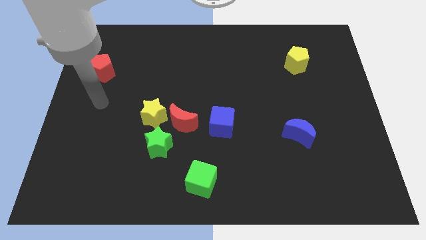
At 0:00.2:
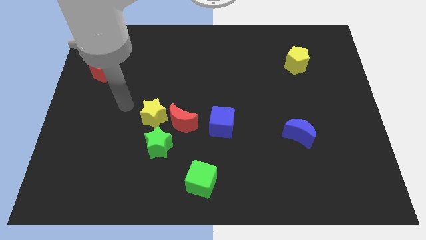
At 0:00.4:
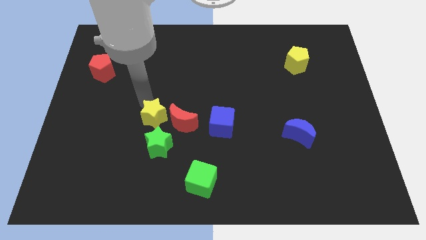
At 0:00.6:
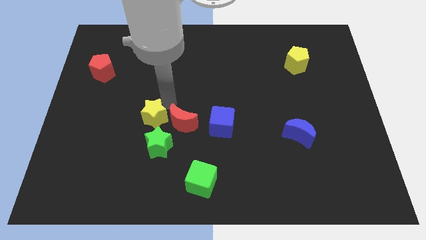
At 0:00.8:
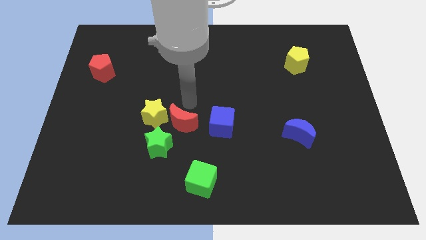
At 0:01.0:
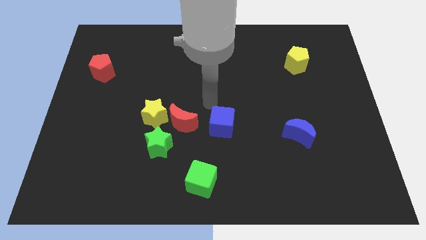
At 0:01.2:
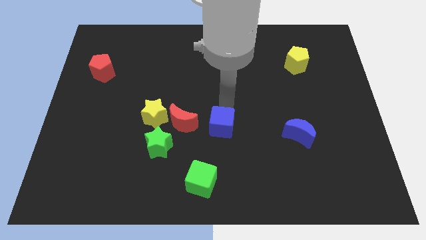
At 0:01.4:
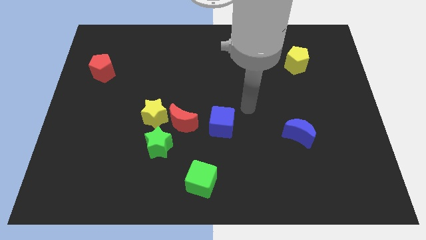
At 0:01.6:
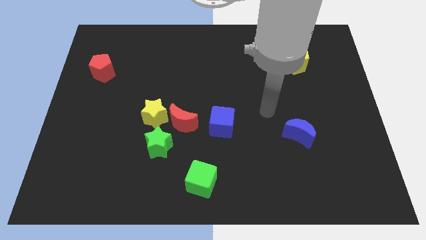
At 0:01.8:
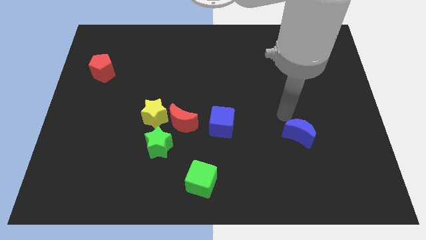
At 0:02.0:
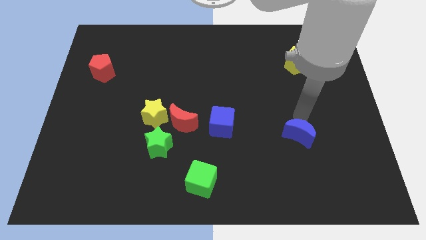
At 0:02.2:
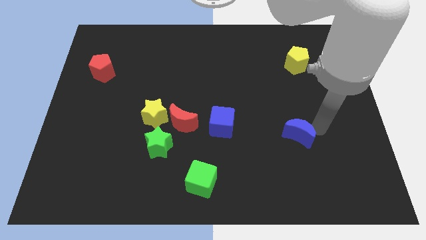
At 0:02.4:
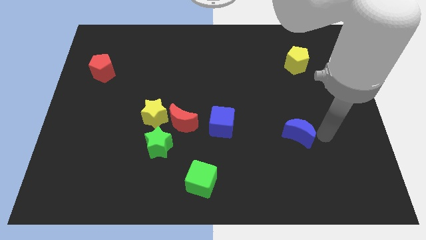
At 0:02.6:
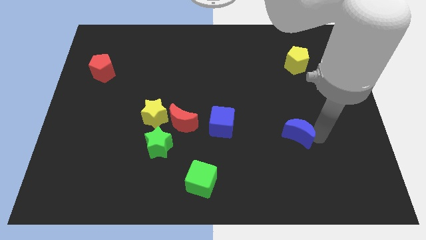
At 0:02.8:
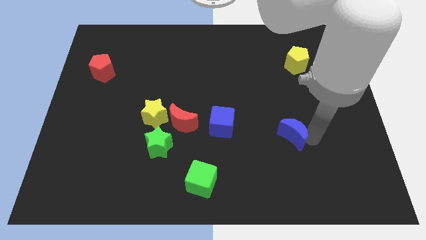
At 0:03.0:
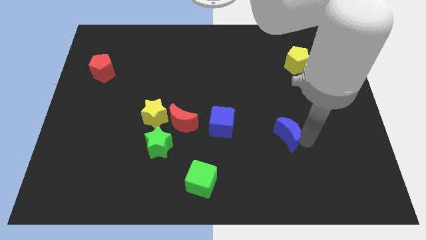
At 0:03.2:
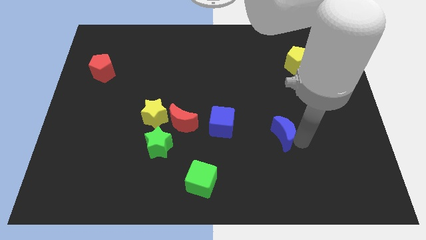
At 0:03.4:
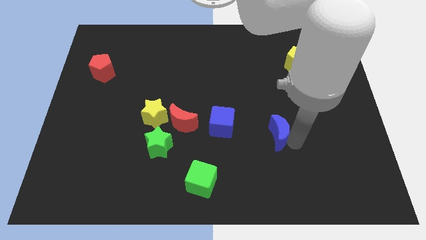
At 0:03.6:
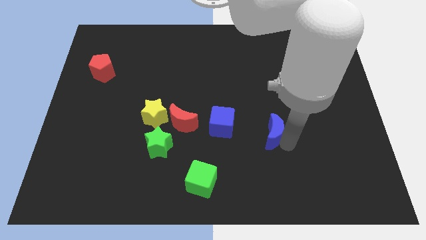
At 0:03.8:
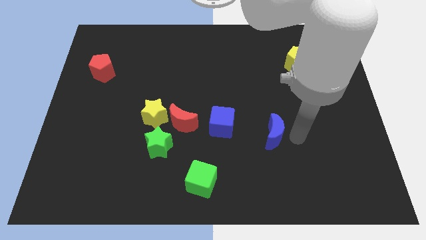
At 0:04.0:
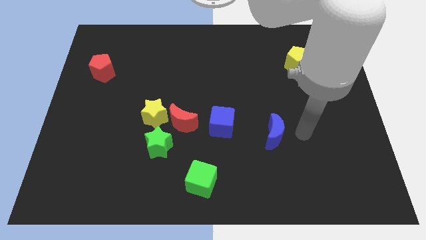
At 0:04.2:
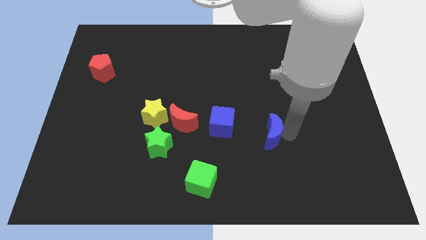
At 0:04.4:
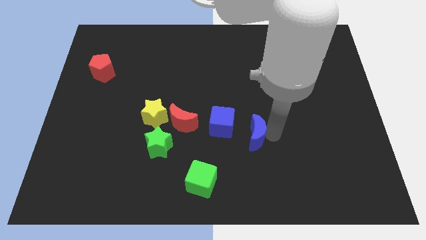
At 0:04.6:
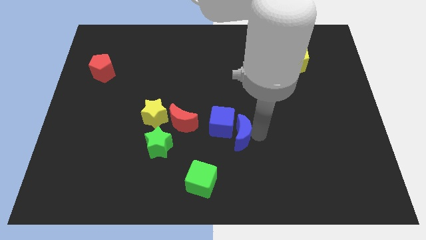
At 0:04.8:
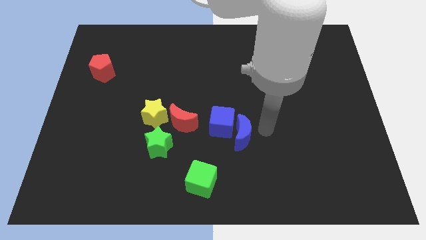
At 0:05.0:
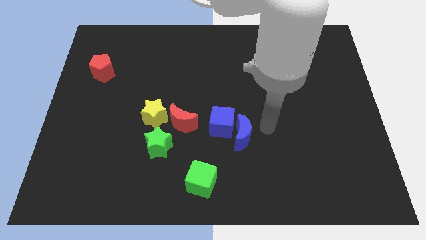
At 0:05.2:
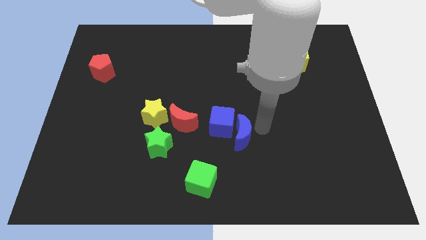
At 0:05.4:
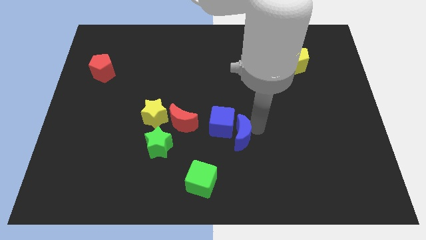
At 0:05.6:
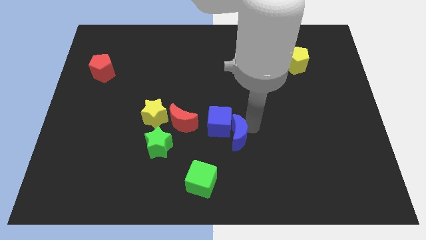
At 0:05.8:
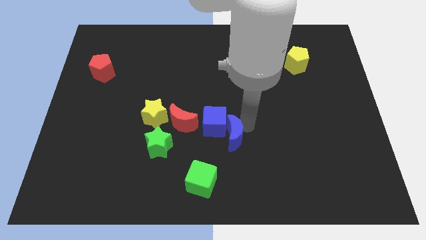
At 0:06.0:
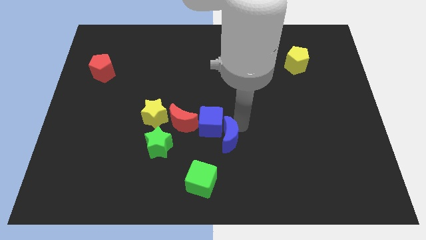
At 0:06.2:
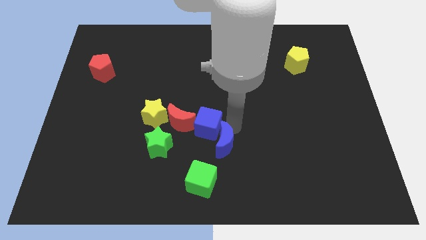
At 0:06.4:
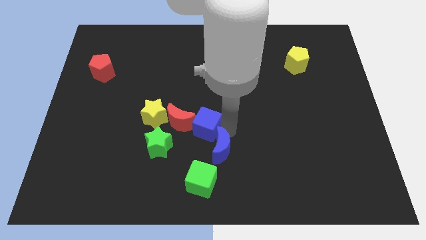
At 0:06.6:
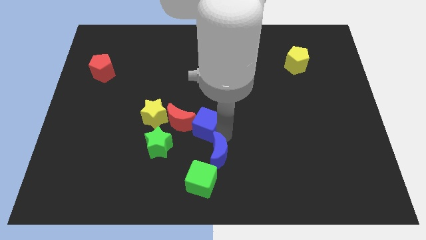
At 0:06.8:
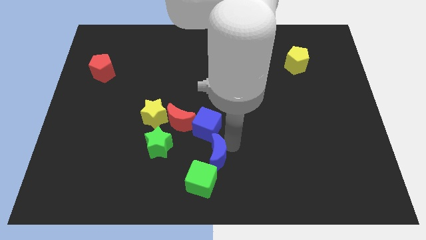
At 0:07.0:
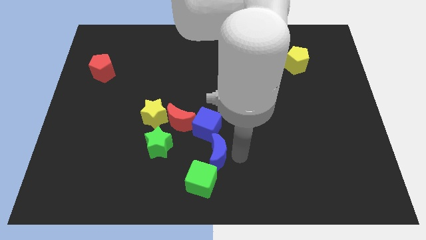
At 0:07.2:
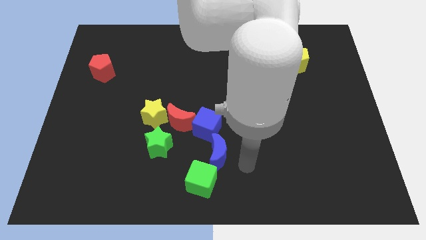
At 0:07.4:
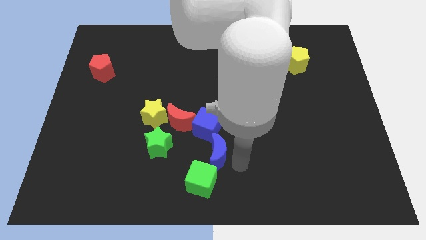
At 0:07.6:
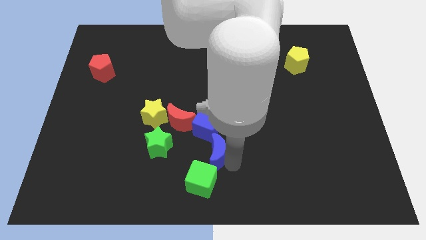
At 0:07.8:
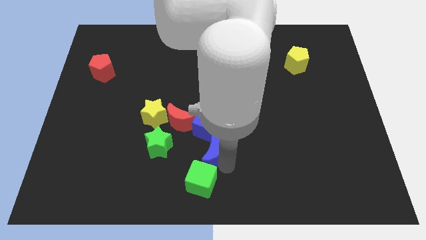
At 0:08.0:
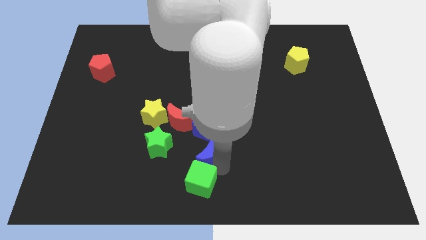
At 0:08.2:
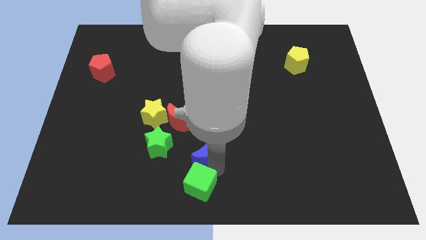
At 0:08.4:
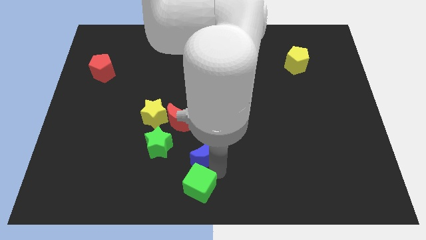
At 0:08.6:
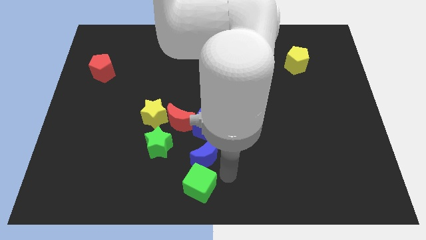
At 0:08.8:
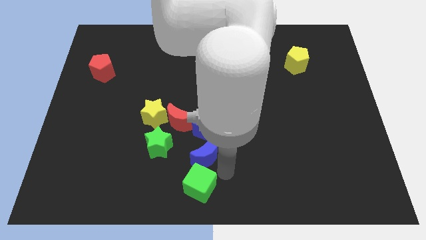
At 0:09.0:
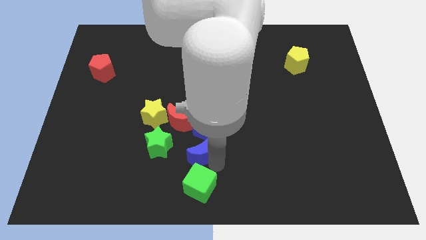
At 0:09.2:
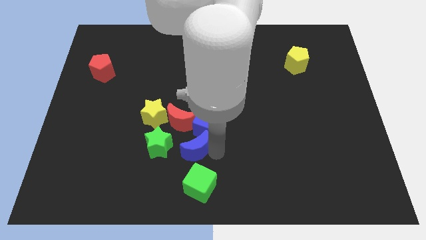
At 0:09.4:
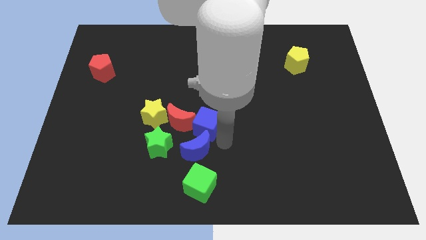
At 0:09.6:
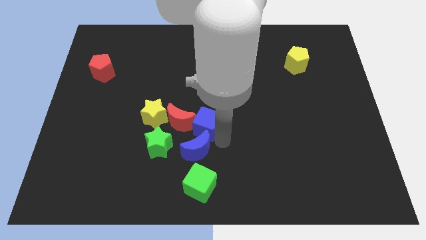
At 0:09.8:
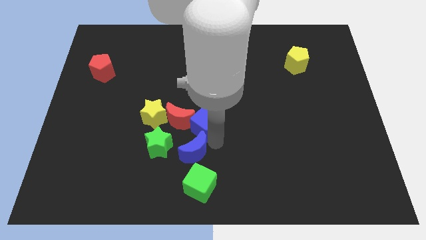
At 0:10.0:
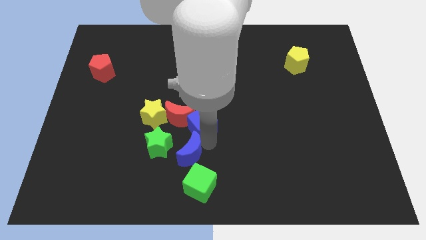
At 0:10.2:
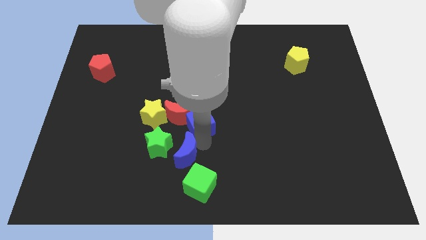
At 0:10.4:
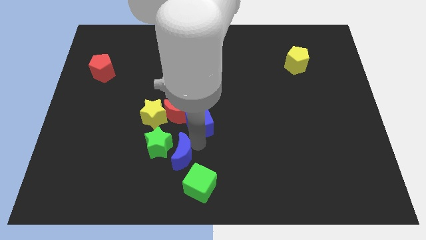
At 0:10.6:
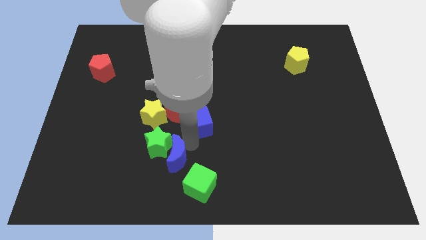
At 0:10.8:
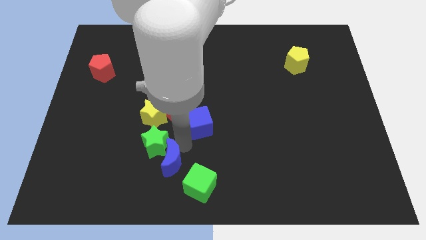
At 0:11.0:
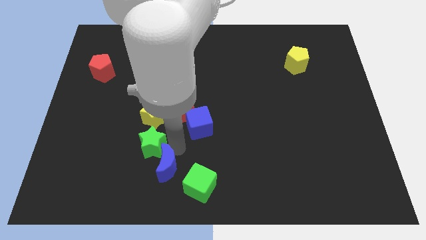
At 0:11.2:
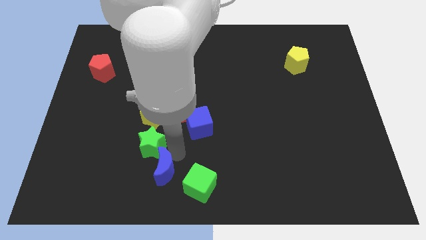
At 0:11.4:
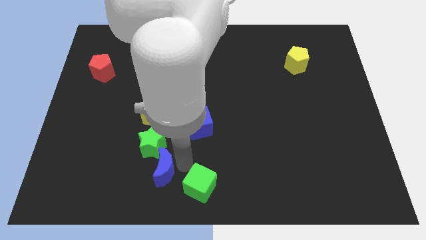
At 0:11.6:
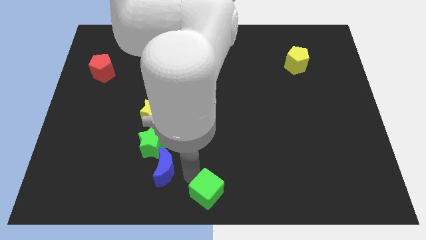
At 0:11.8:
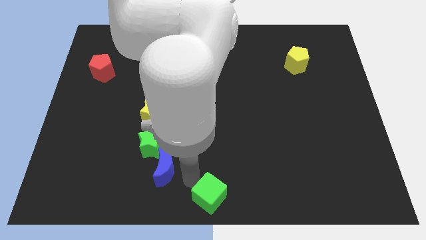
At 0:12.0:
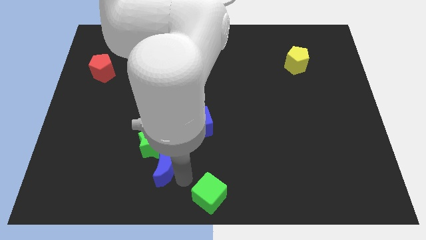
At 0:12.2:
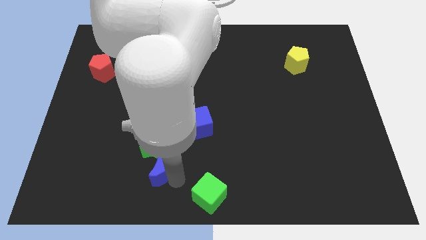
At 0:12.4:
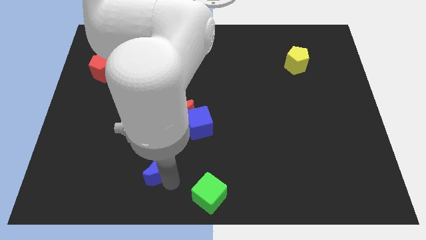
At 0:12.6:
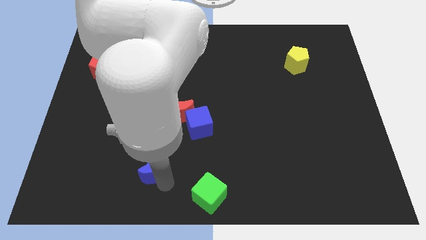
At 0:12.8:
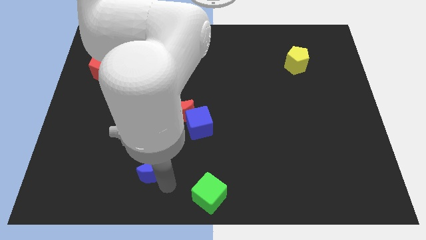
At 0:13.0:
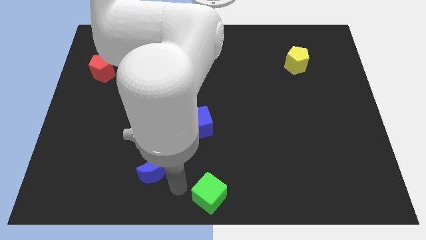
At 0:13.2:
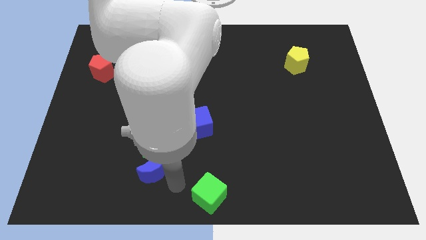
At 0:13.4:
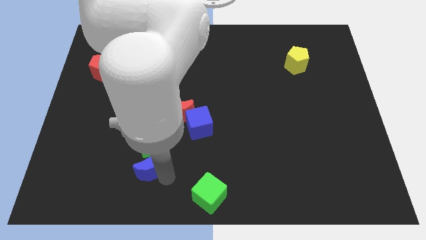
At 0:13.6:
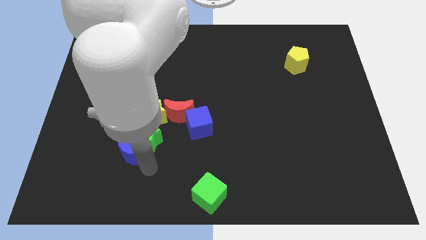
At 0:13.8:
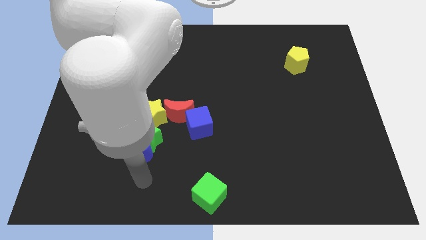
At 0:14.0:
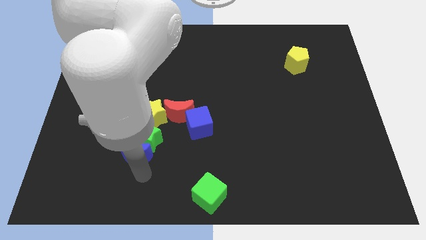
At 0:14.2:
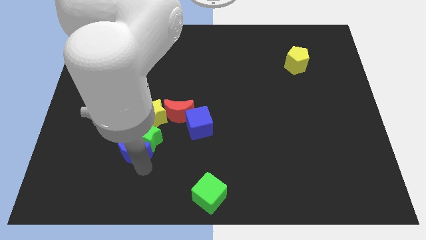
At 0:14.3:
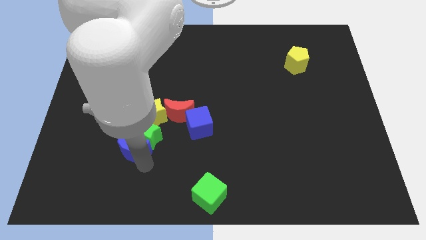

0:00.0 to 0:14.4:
push the blue moon to the bottom left of the yellow star

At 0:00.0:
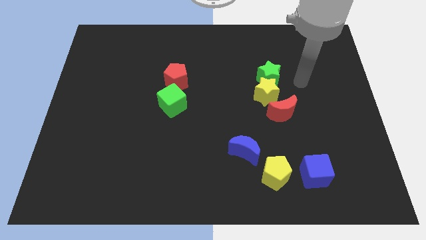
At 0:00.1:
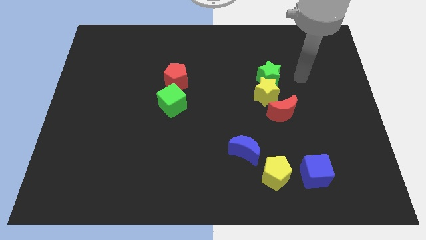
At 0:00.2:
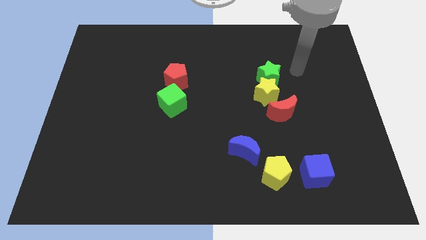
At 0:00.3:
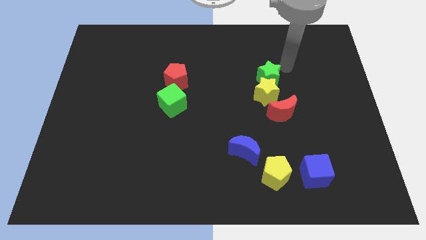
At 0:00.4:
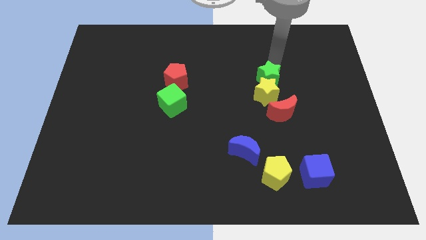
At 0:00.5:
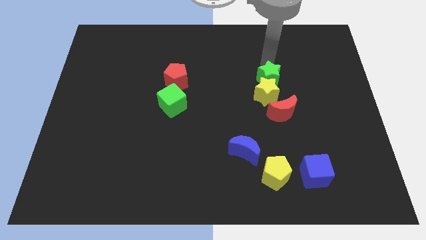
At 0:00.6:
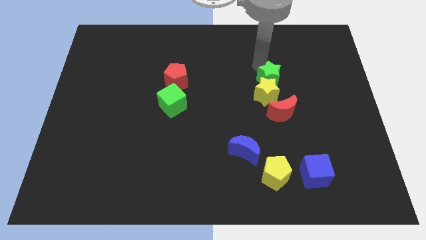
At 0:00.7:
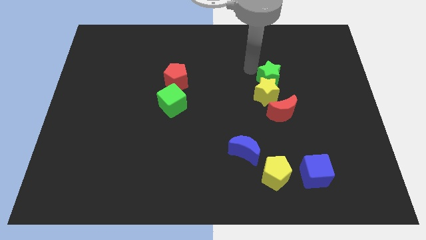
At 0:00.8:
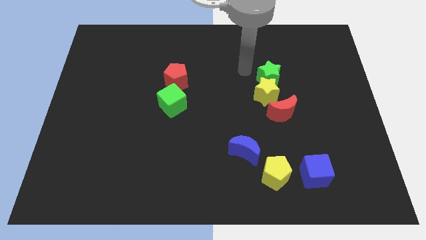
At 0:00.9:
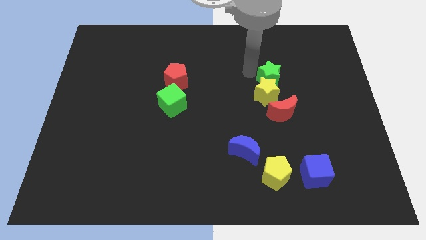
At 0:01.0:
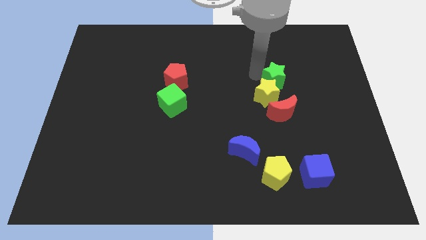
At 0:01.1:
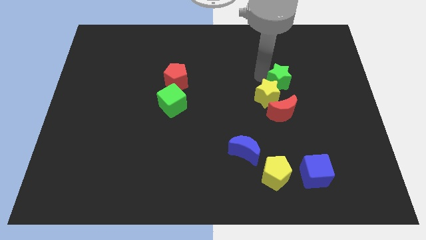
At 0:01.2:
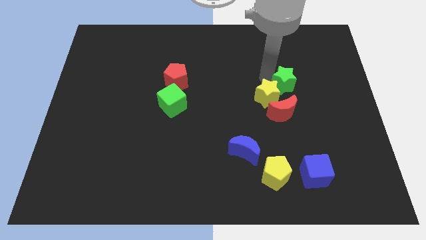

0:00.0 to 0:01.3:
move the green star to the right of the yellow star
